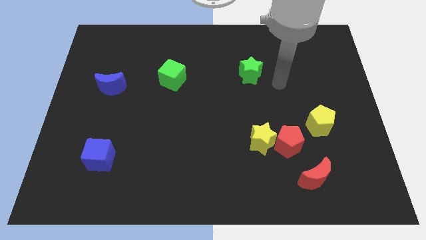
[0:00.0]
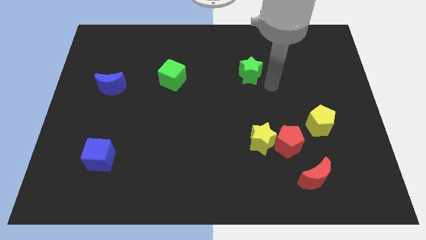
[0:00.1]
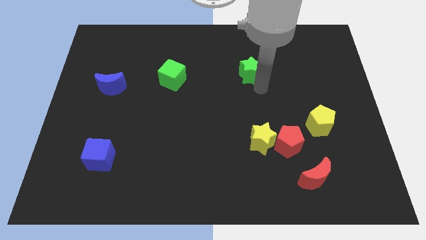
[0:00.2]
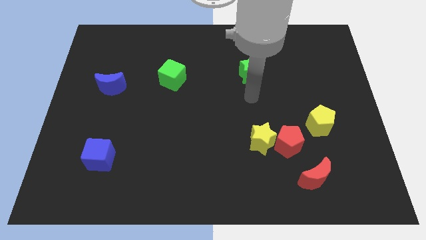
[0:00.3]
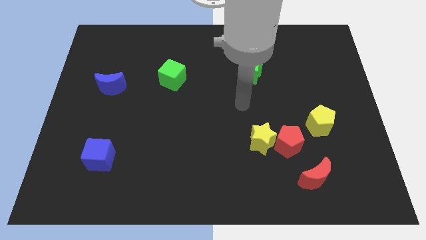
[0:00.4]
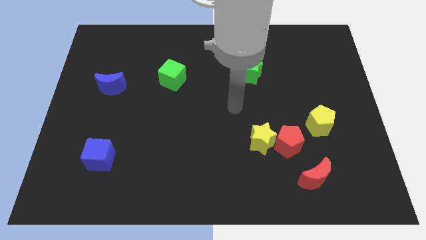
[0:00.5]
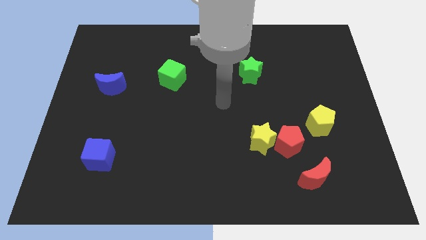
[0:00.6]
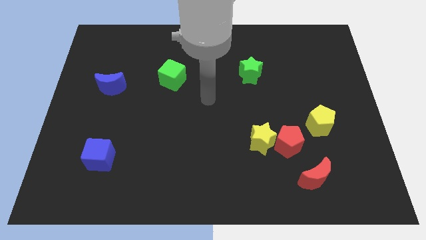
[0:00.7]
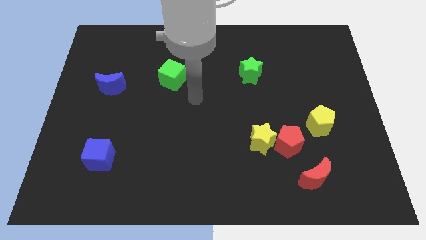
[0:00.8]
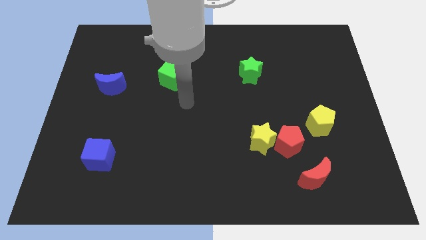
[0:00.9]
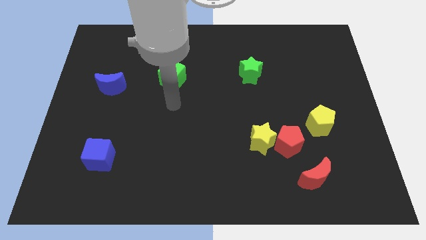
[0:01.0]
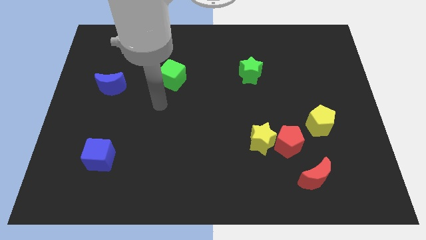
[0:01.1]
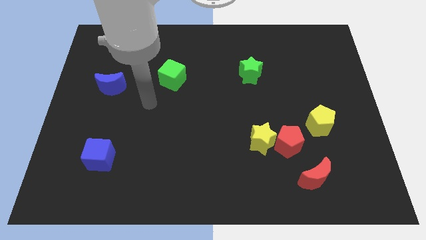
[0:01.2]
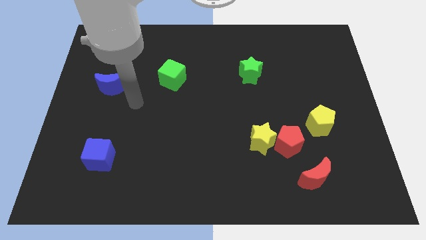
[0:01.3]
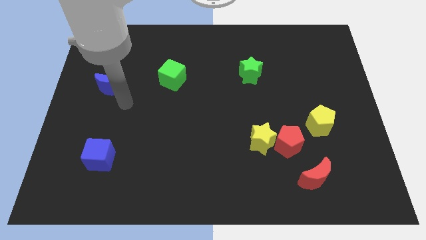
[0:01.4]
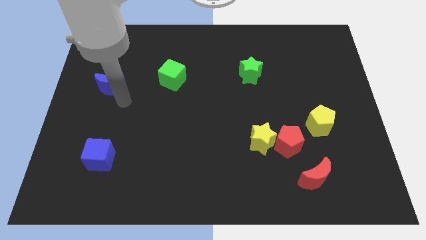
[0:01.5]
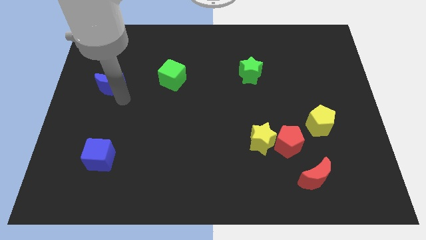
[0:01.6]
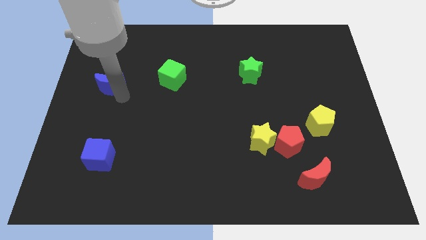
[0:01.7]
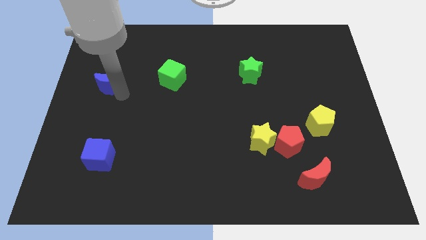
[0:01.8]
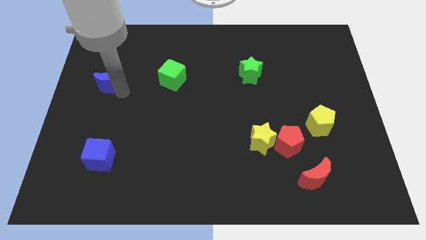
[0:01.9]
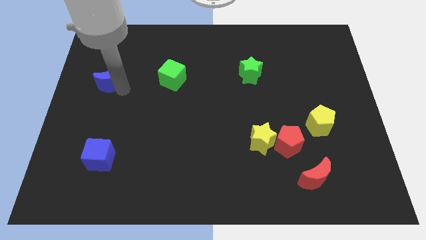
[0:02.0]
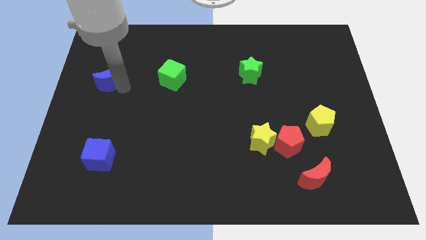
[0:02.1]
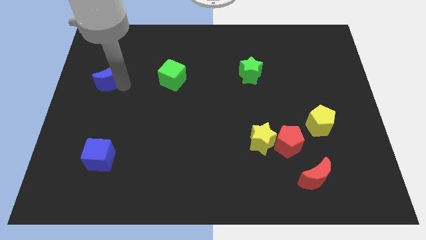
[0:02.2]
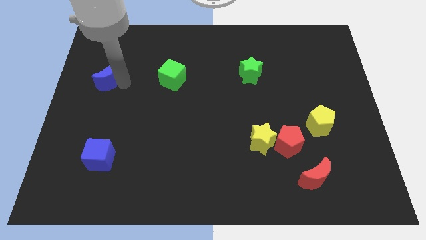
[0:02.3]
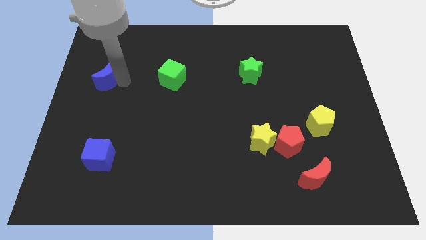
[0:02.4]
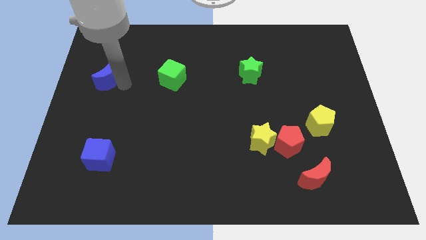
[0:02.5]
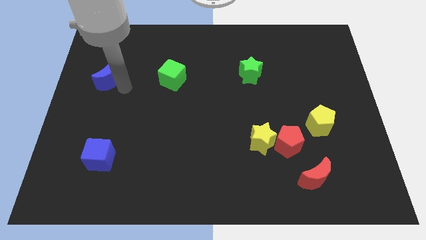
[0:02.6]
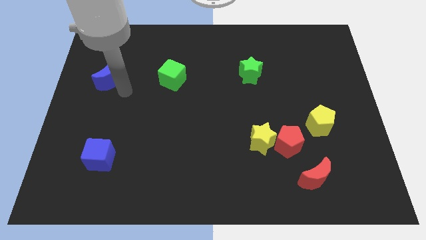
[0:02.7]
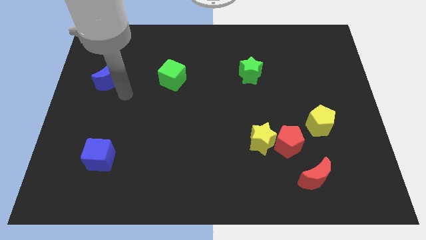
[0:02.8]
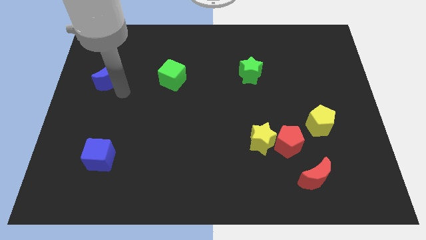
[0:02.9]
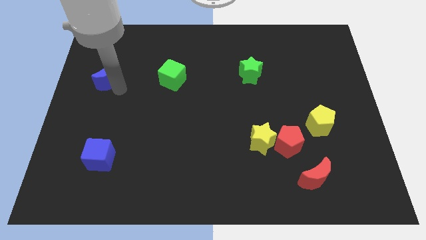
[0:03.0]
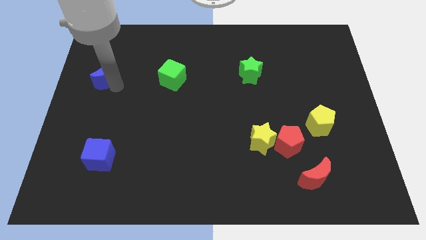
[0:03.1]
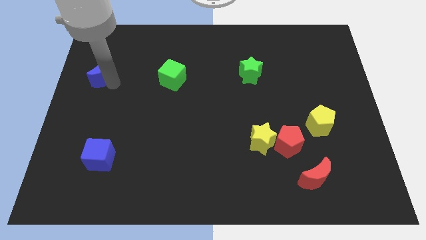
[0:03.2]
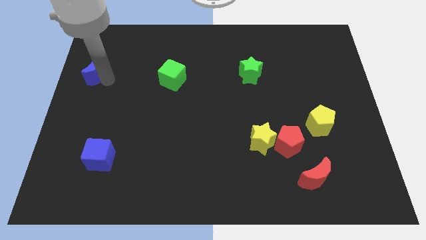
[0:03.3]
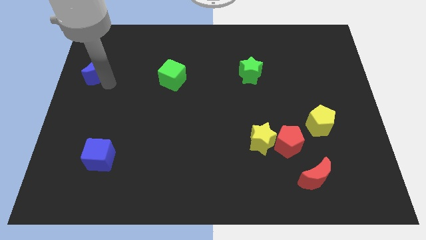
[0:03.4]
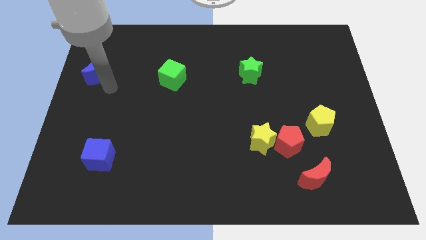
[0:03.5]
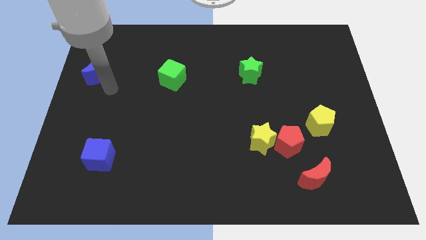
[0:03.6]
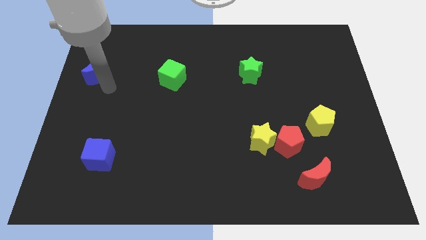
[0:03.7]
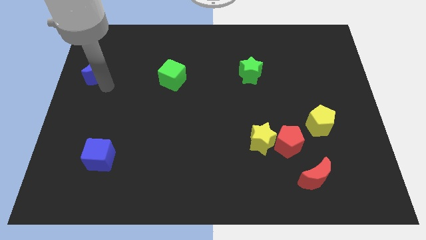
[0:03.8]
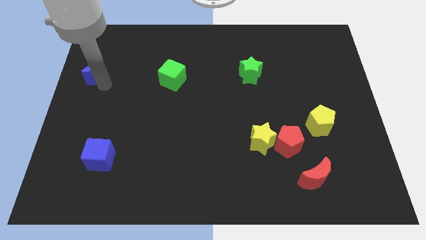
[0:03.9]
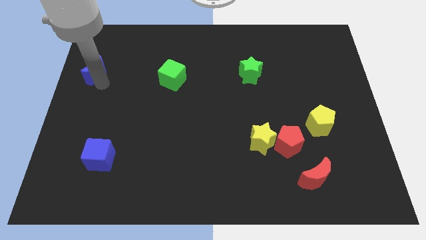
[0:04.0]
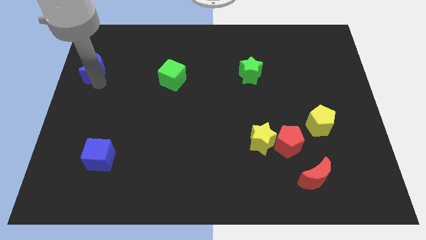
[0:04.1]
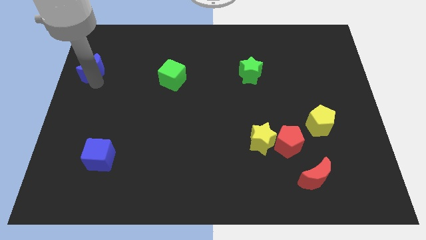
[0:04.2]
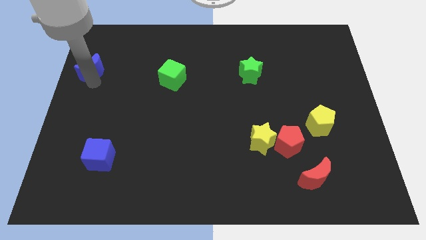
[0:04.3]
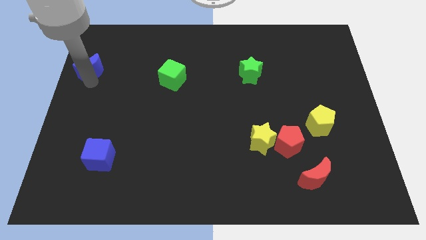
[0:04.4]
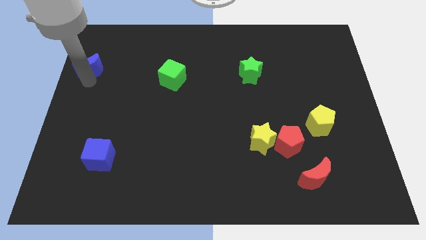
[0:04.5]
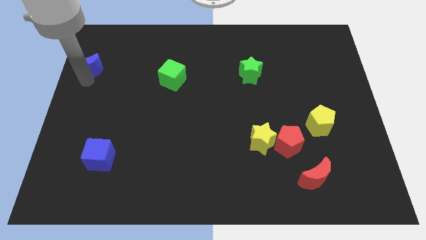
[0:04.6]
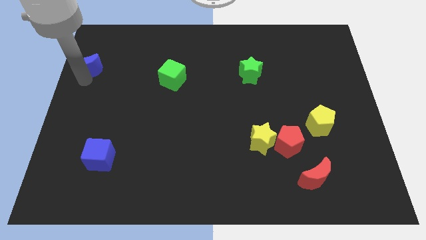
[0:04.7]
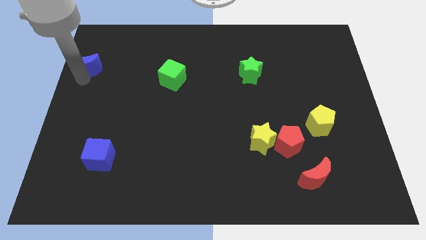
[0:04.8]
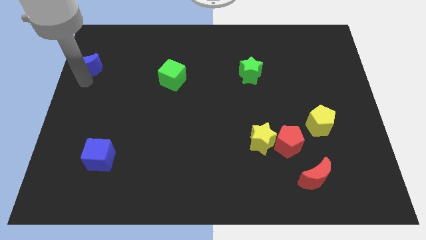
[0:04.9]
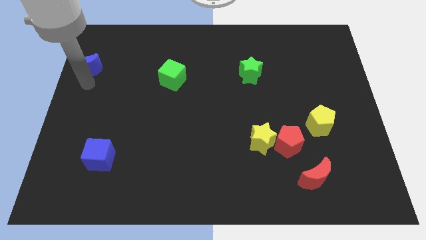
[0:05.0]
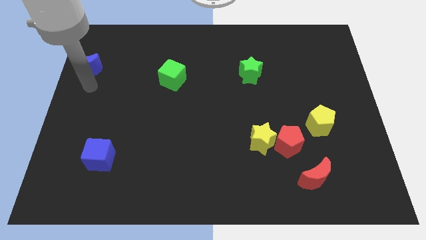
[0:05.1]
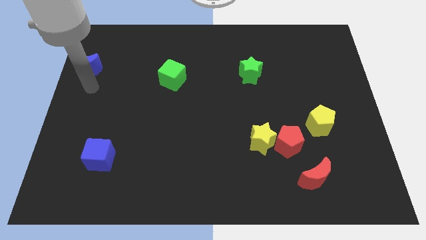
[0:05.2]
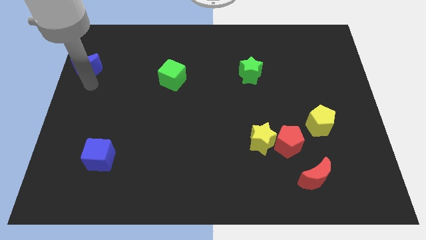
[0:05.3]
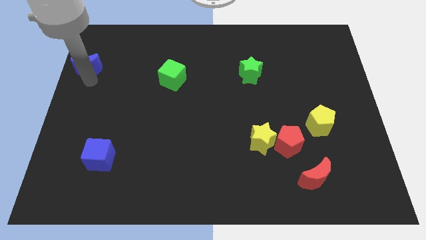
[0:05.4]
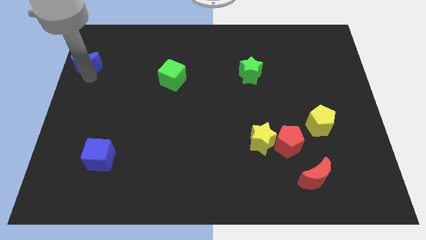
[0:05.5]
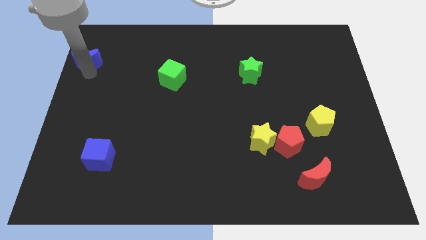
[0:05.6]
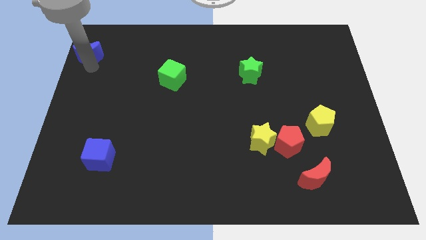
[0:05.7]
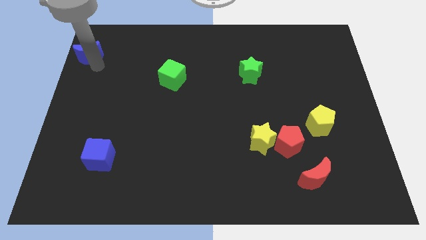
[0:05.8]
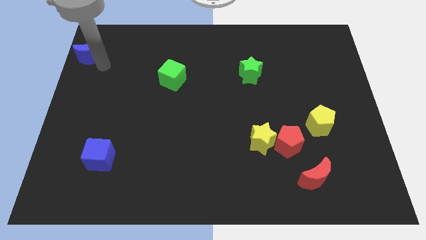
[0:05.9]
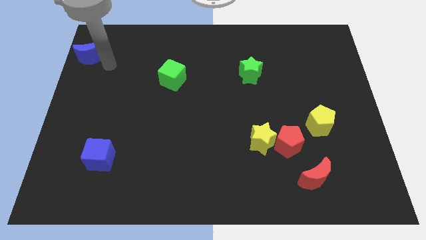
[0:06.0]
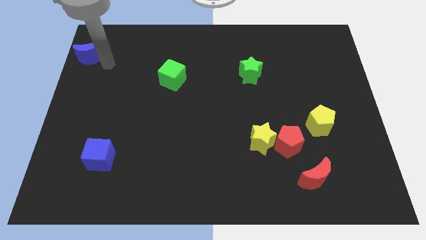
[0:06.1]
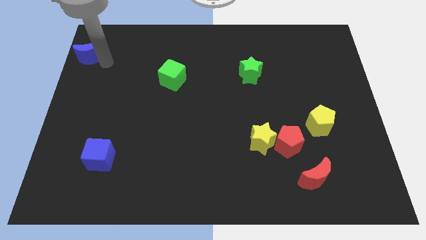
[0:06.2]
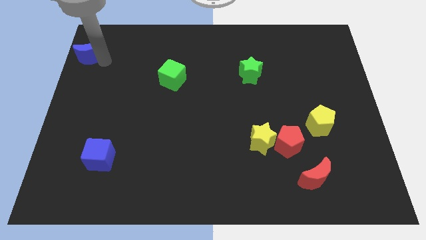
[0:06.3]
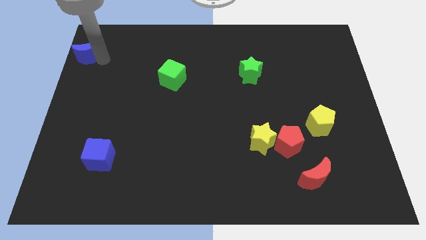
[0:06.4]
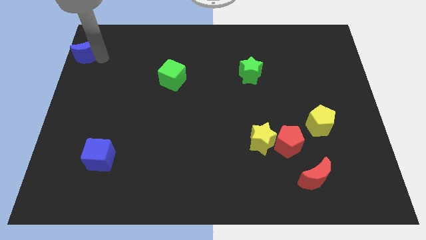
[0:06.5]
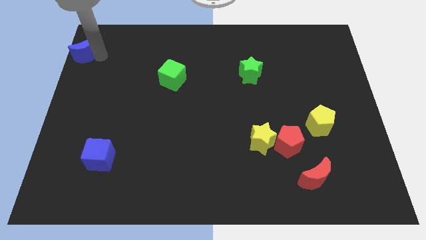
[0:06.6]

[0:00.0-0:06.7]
slide the blue moon to the top left
